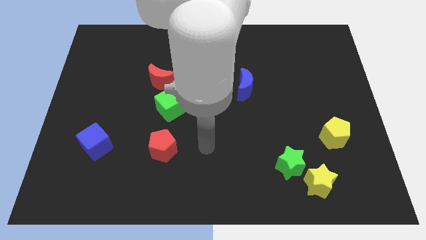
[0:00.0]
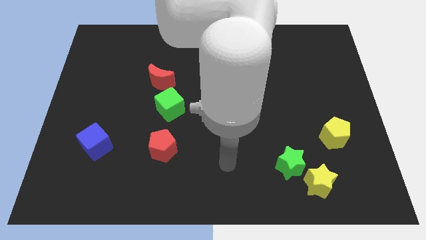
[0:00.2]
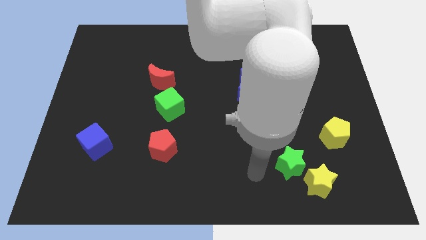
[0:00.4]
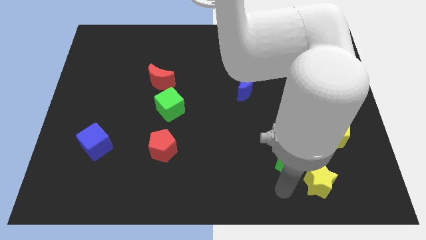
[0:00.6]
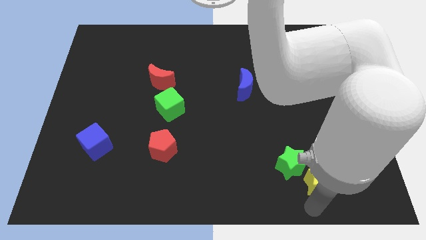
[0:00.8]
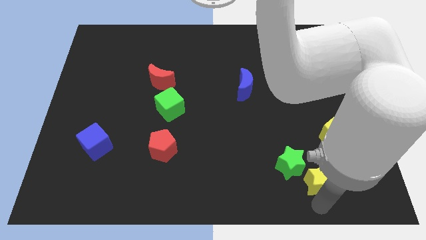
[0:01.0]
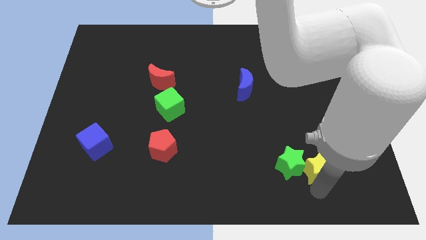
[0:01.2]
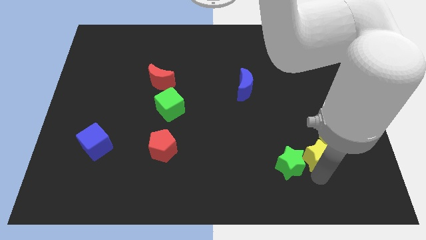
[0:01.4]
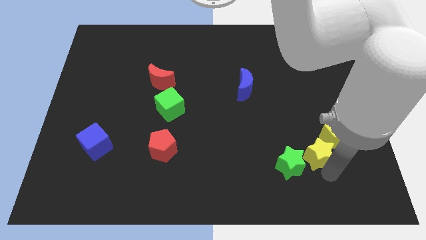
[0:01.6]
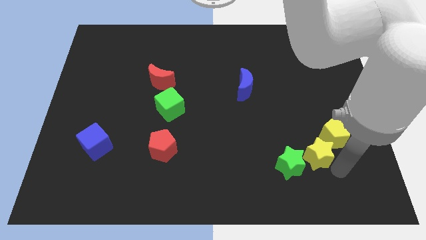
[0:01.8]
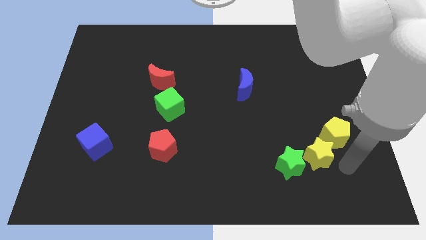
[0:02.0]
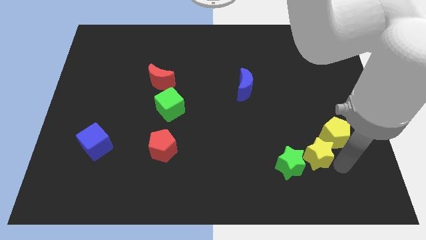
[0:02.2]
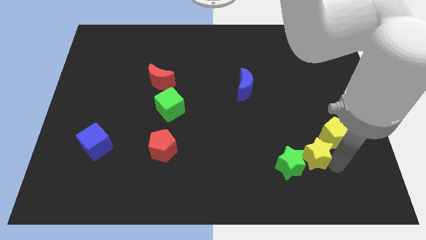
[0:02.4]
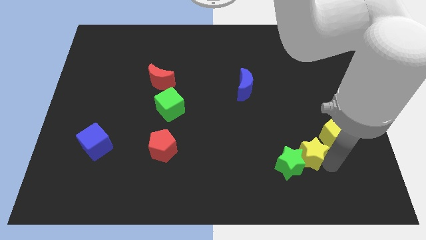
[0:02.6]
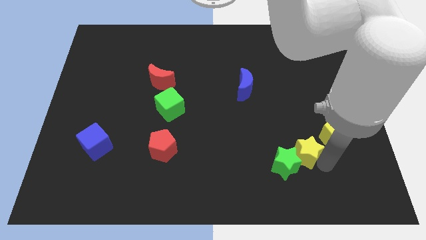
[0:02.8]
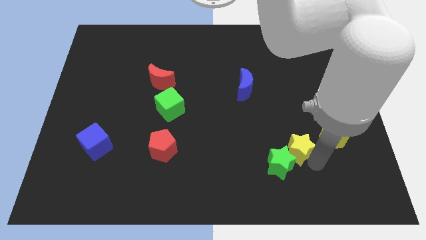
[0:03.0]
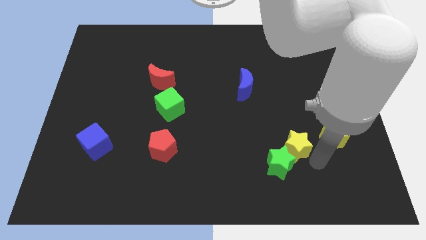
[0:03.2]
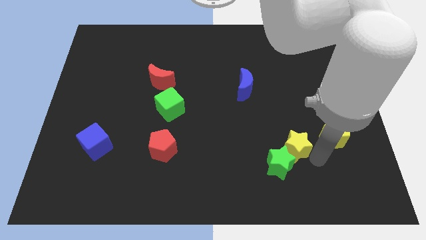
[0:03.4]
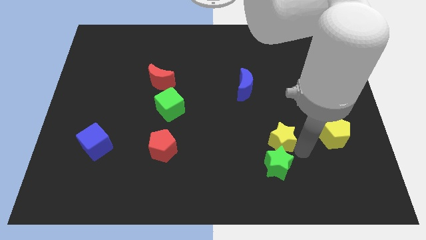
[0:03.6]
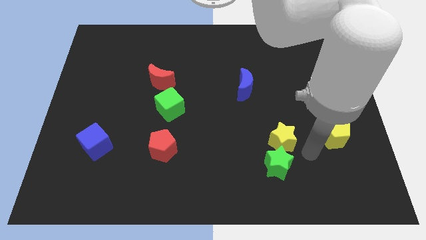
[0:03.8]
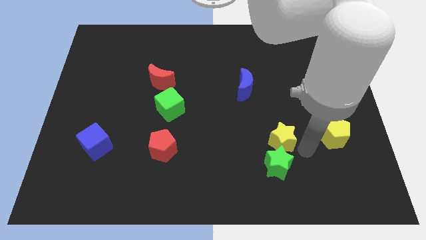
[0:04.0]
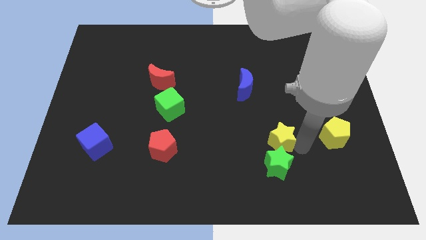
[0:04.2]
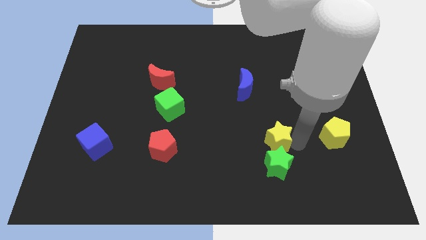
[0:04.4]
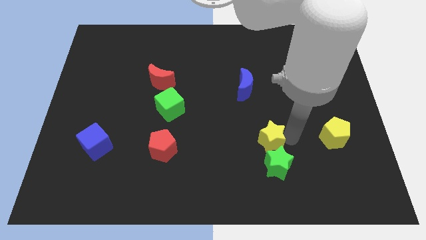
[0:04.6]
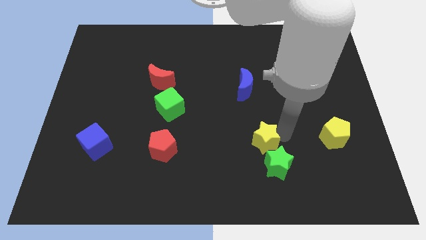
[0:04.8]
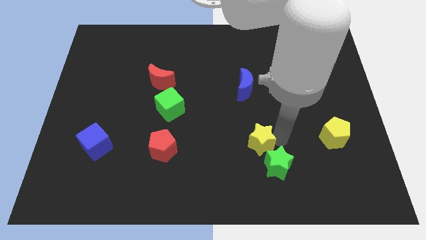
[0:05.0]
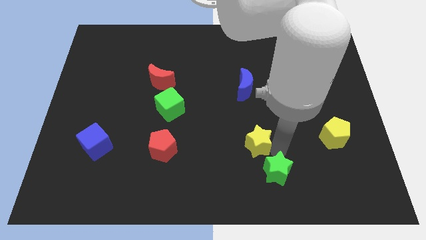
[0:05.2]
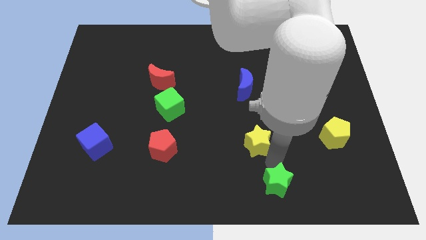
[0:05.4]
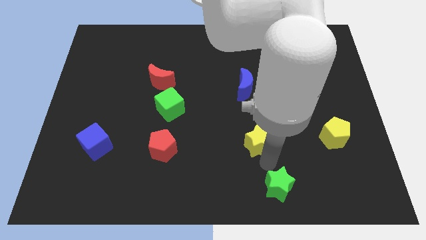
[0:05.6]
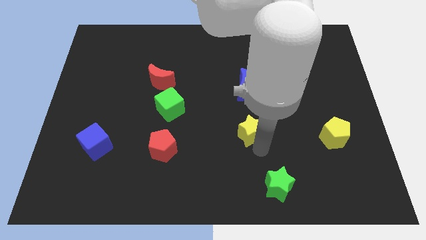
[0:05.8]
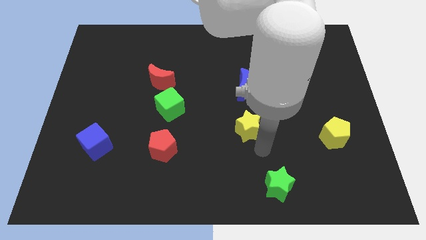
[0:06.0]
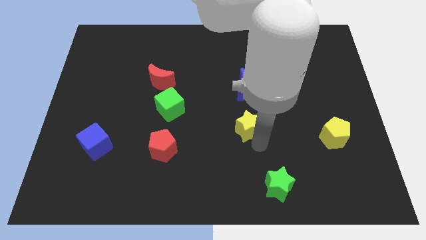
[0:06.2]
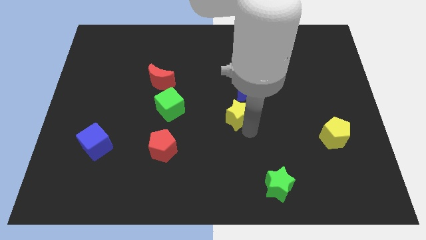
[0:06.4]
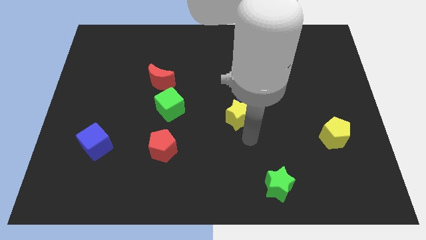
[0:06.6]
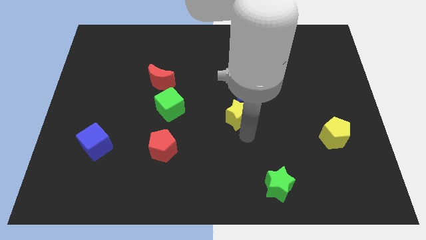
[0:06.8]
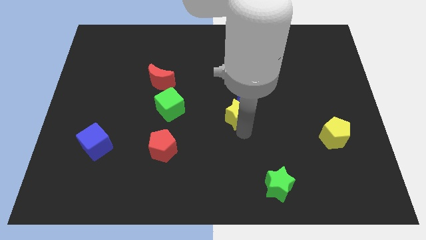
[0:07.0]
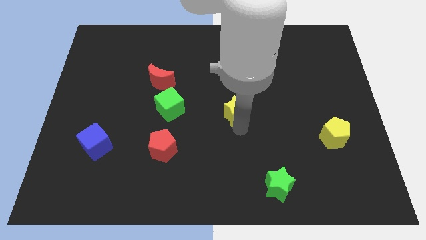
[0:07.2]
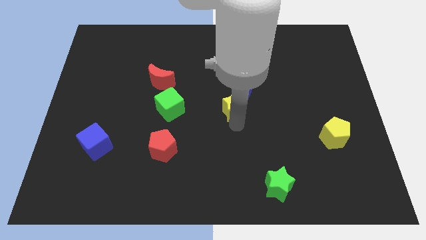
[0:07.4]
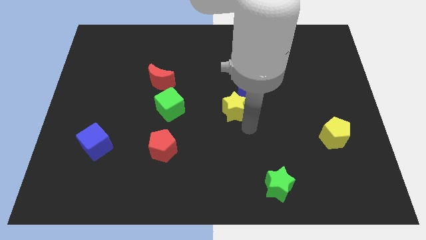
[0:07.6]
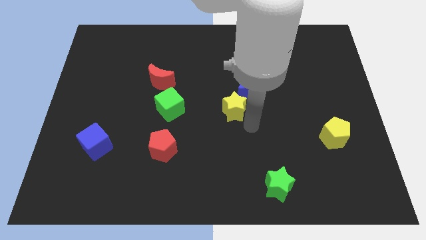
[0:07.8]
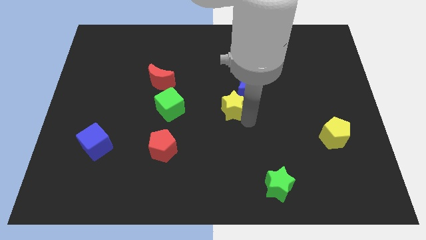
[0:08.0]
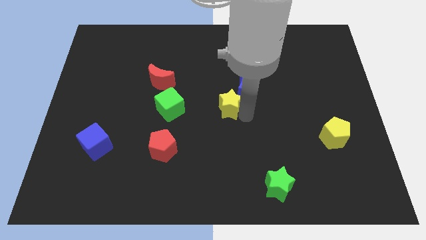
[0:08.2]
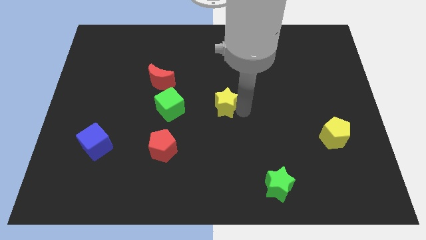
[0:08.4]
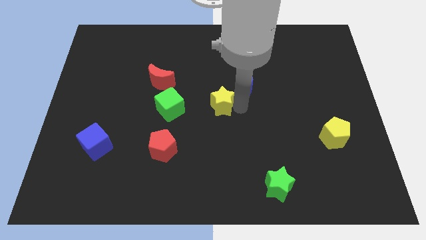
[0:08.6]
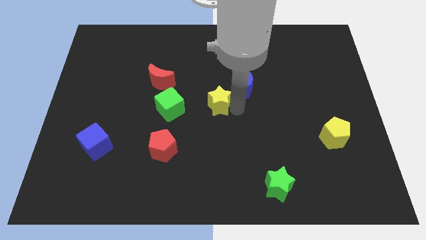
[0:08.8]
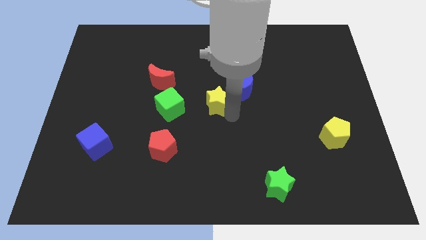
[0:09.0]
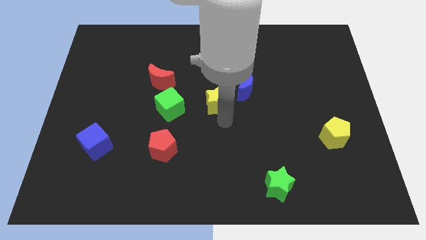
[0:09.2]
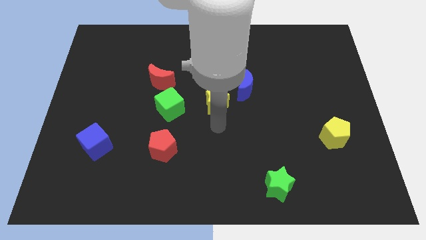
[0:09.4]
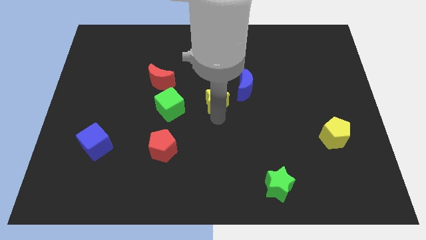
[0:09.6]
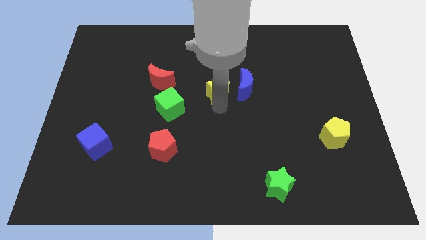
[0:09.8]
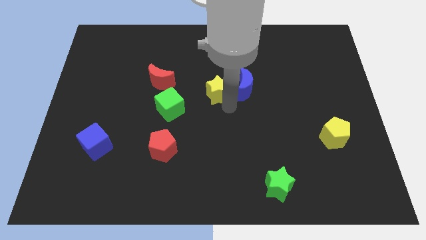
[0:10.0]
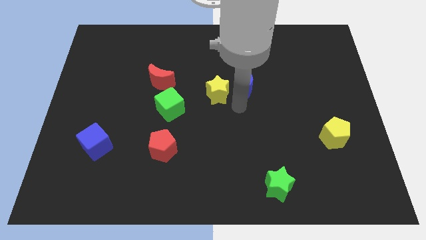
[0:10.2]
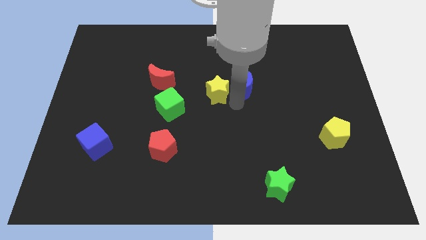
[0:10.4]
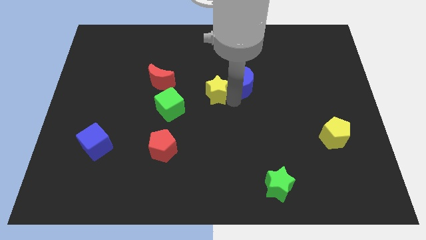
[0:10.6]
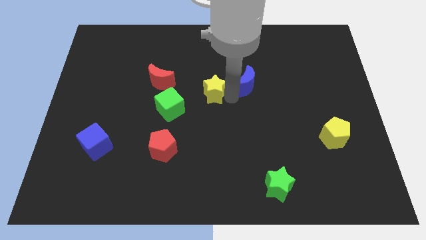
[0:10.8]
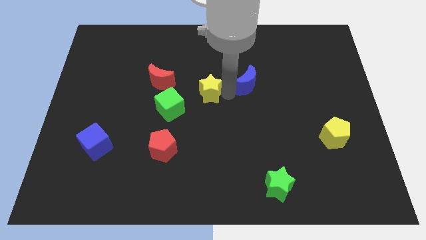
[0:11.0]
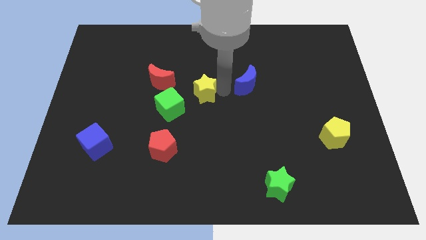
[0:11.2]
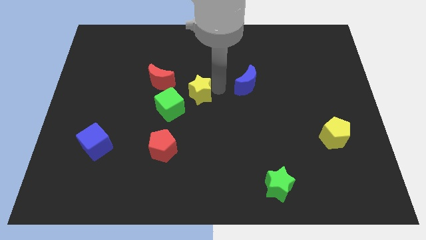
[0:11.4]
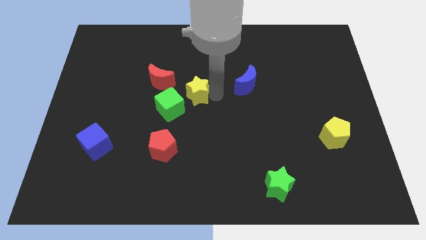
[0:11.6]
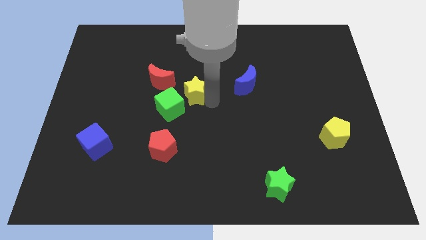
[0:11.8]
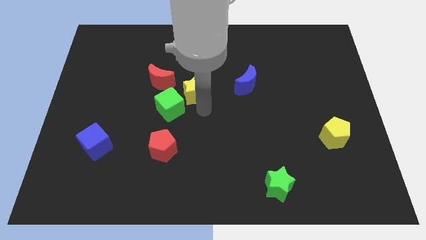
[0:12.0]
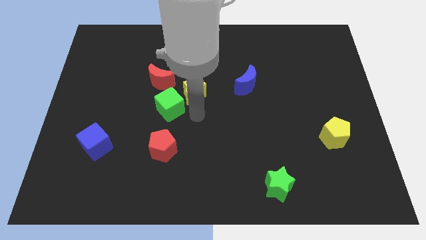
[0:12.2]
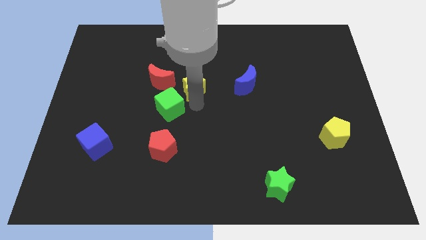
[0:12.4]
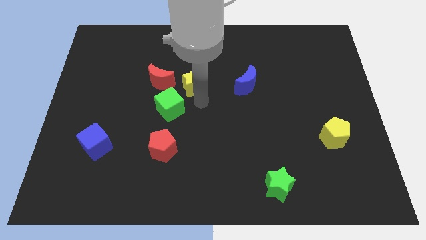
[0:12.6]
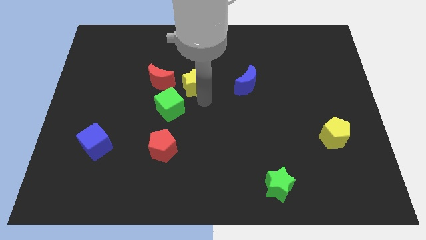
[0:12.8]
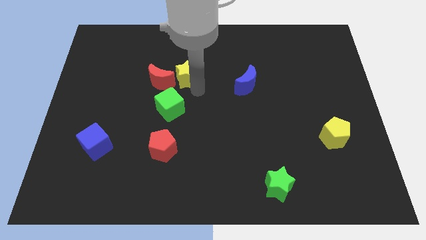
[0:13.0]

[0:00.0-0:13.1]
move the yellow star diagonally up and to the right of the red moon

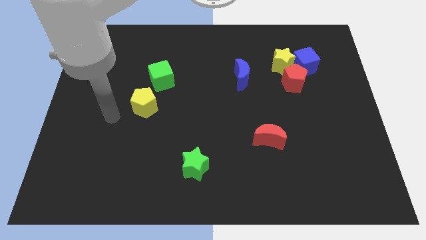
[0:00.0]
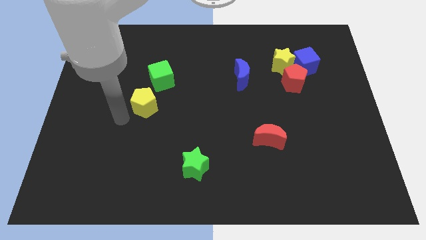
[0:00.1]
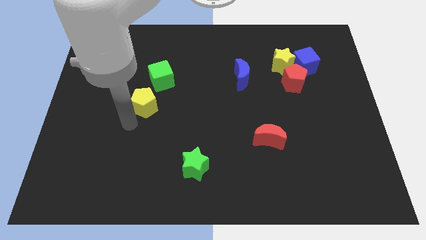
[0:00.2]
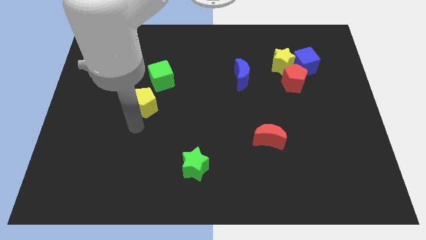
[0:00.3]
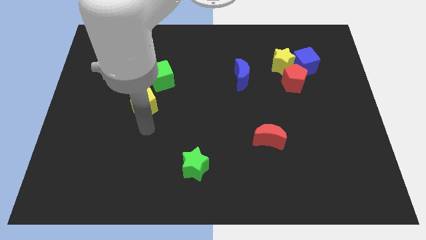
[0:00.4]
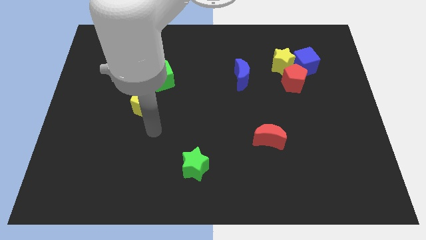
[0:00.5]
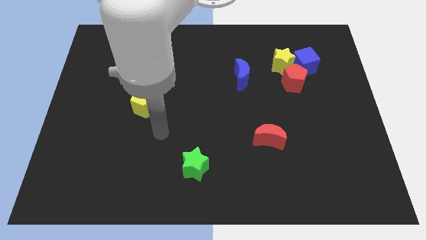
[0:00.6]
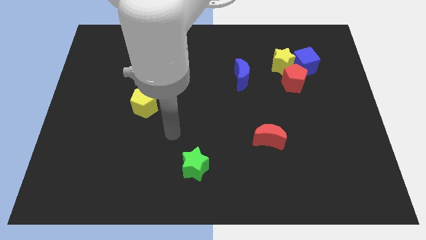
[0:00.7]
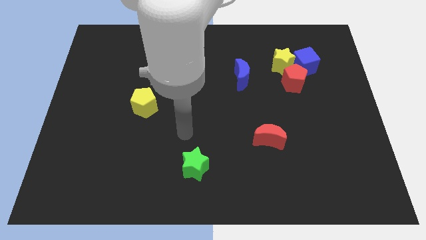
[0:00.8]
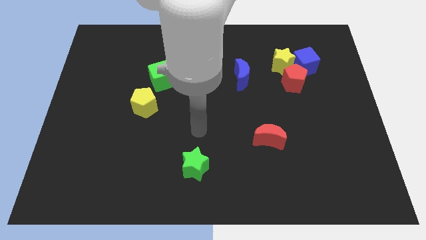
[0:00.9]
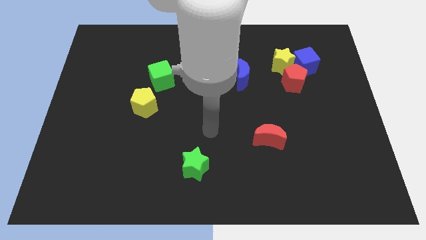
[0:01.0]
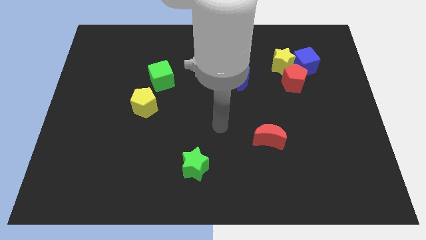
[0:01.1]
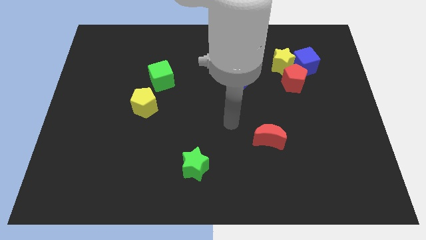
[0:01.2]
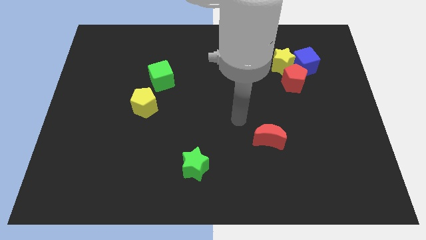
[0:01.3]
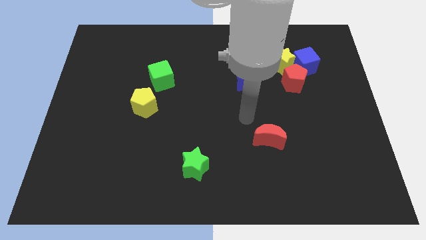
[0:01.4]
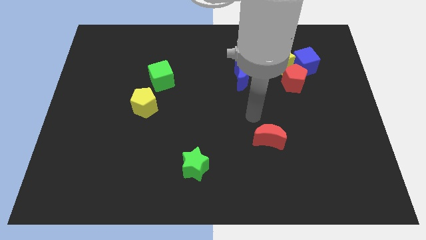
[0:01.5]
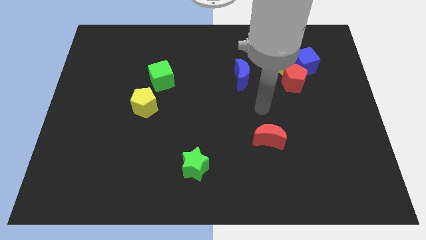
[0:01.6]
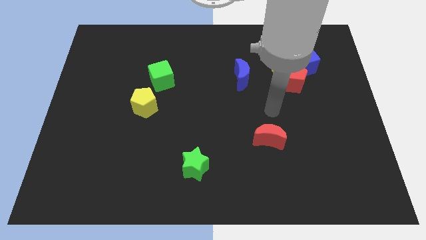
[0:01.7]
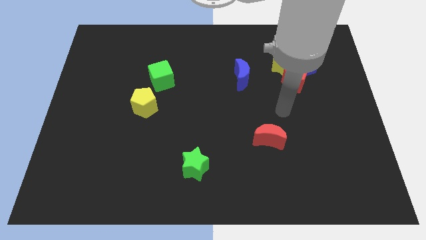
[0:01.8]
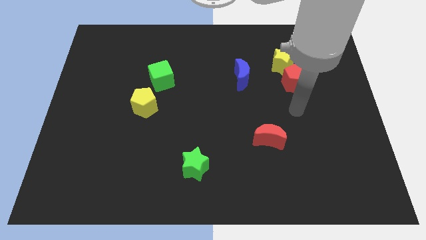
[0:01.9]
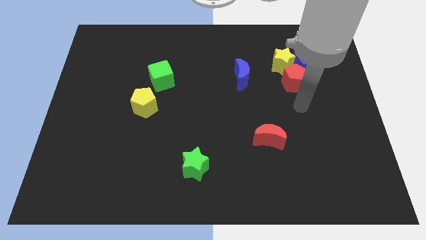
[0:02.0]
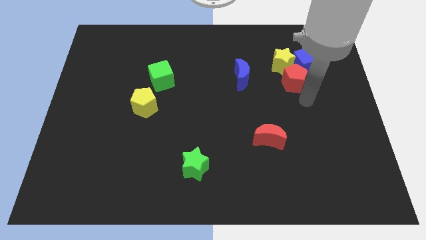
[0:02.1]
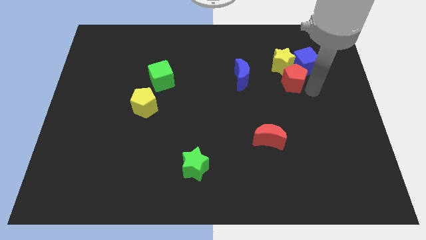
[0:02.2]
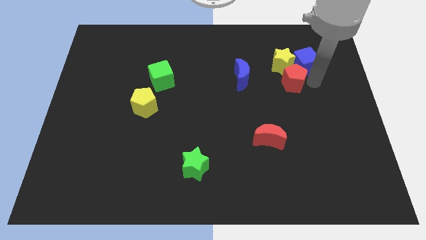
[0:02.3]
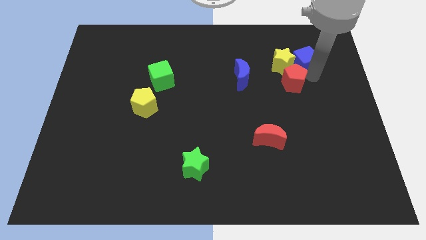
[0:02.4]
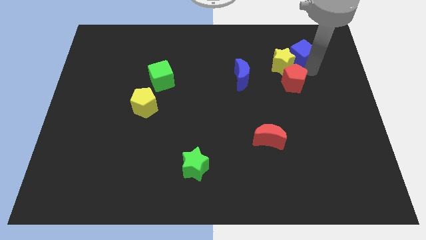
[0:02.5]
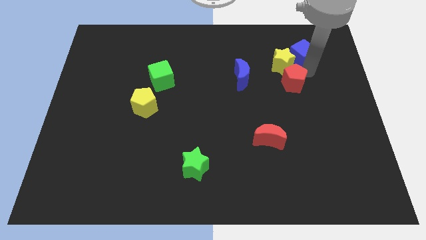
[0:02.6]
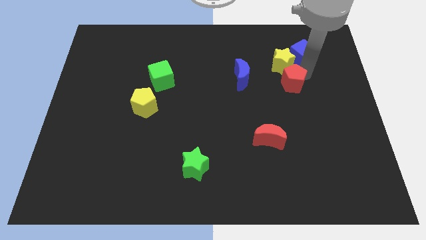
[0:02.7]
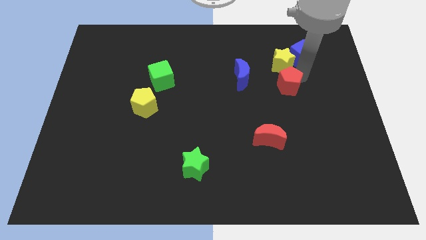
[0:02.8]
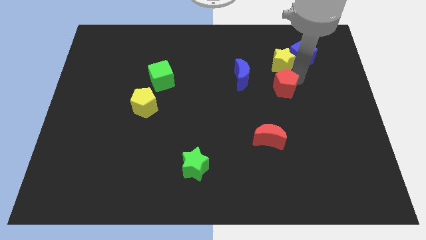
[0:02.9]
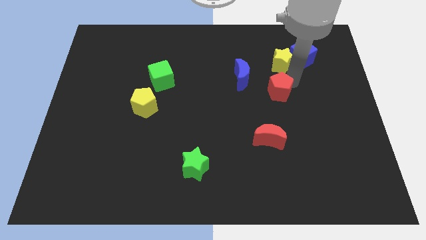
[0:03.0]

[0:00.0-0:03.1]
put the red pentagon above the red moon
